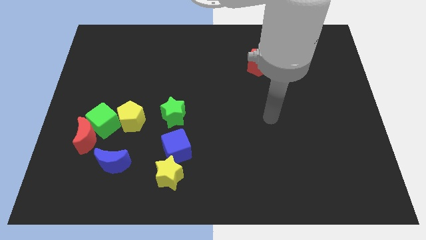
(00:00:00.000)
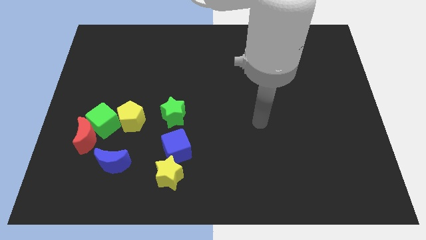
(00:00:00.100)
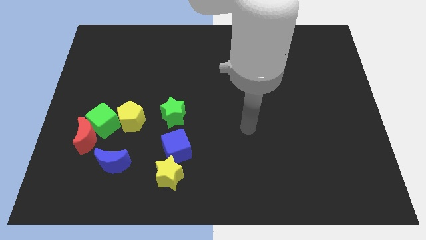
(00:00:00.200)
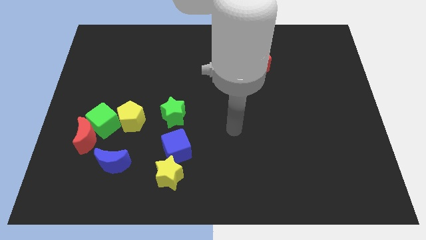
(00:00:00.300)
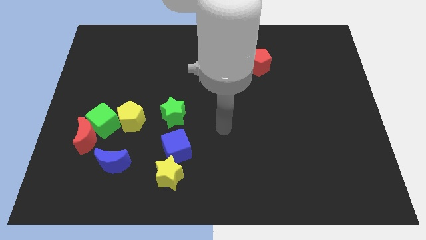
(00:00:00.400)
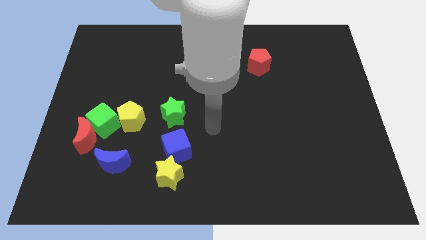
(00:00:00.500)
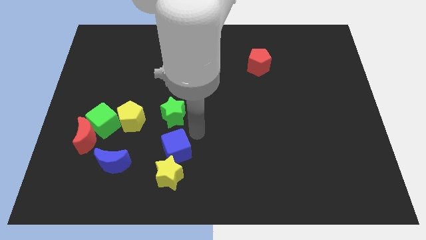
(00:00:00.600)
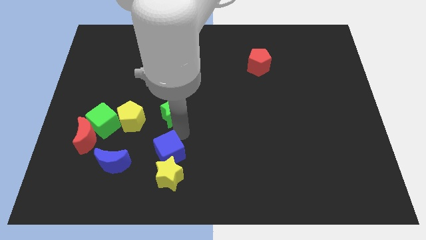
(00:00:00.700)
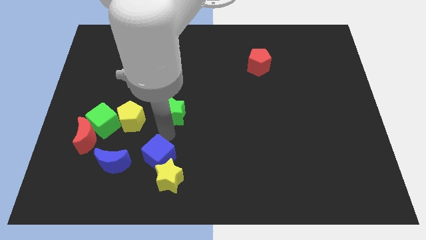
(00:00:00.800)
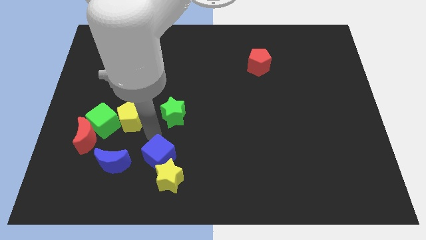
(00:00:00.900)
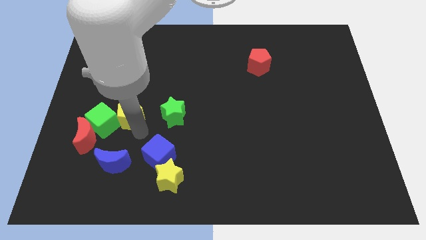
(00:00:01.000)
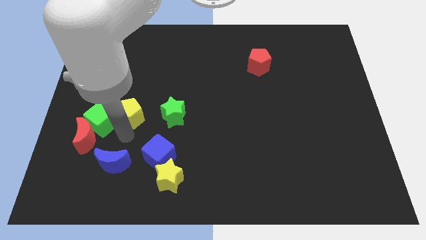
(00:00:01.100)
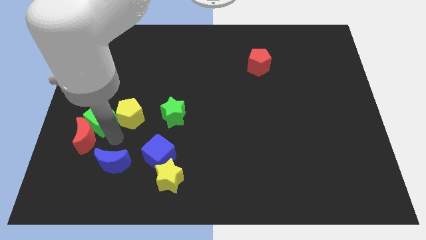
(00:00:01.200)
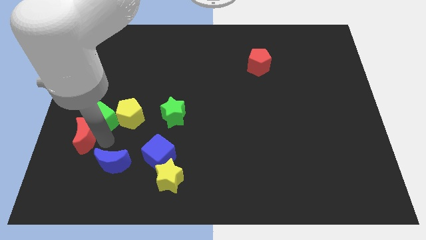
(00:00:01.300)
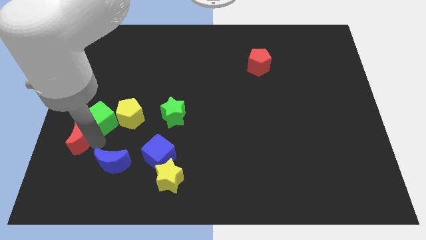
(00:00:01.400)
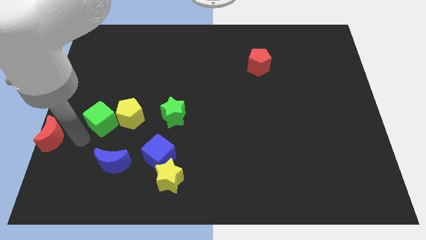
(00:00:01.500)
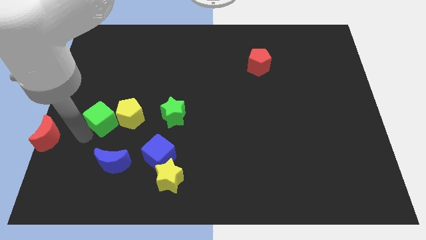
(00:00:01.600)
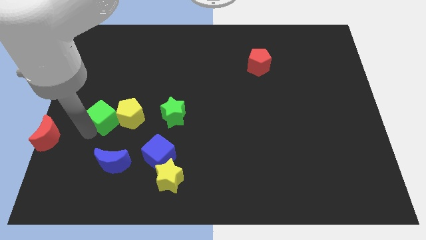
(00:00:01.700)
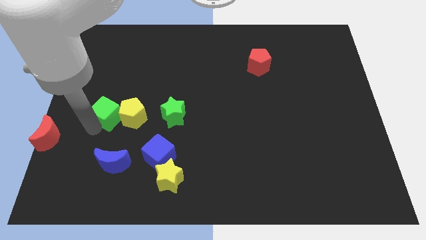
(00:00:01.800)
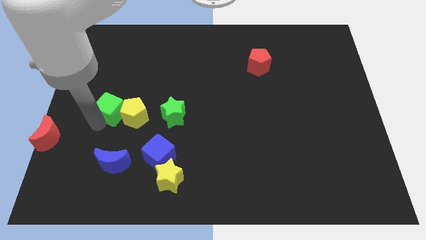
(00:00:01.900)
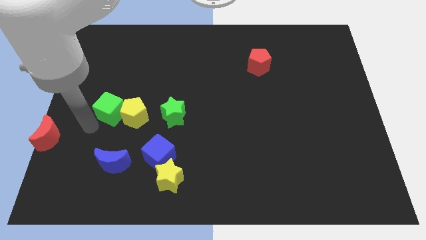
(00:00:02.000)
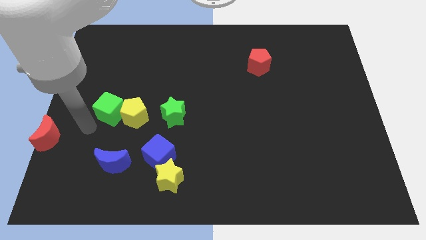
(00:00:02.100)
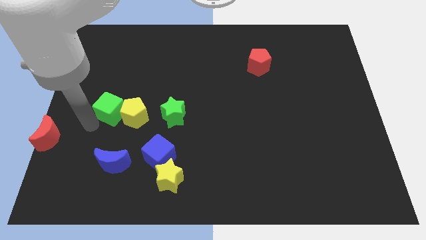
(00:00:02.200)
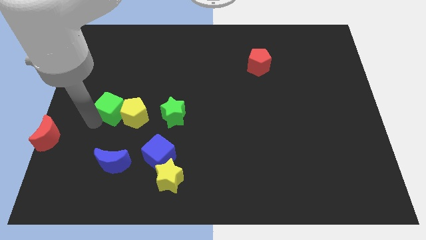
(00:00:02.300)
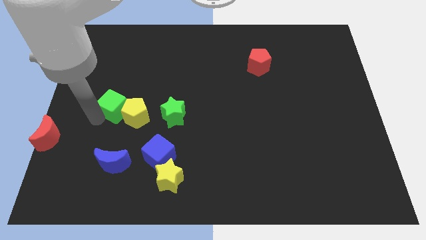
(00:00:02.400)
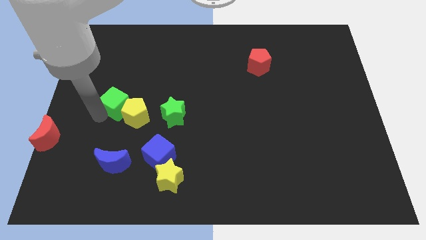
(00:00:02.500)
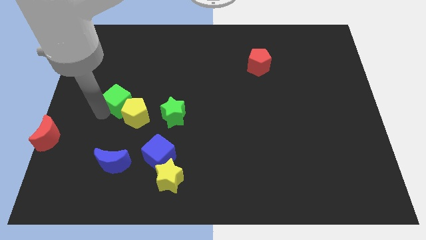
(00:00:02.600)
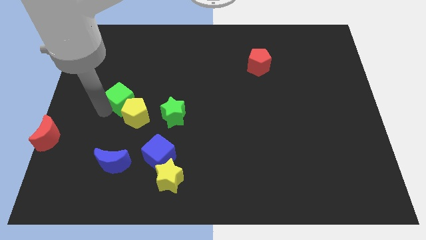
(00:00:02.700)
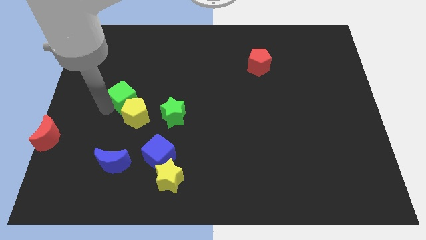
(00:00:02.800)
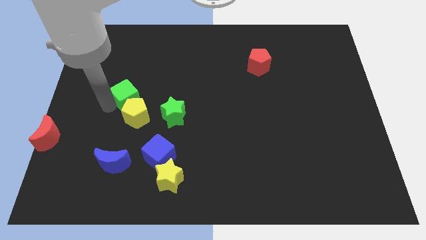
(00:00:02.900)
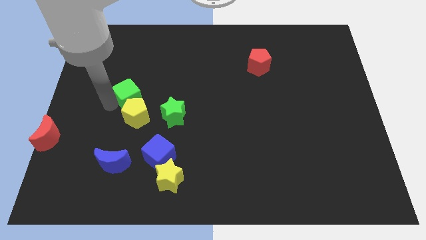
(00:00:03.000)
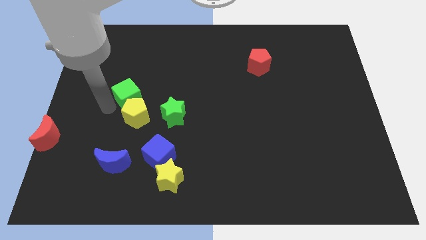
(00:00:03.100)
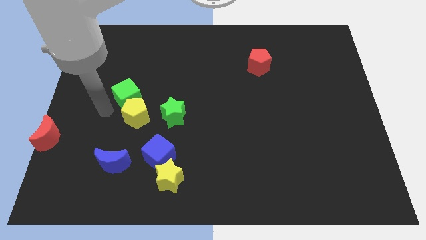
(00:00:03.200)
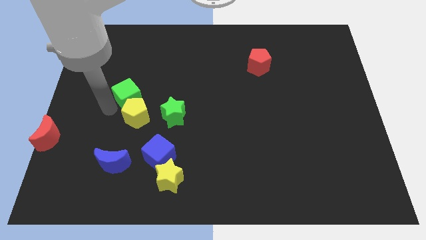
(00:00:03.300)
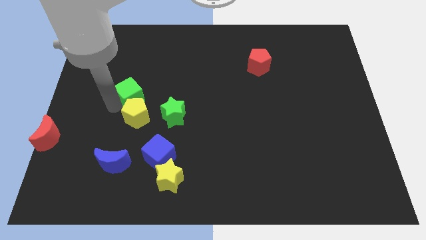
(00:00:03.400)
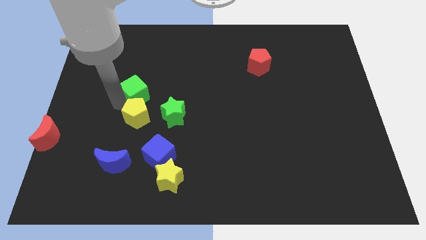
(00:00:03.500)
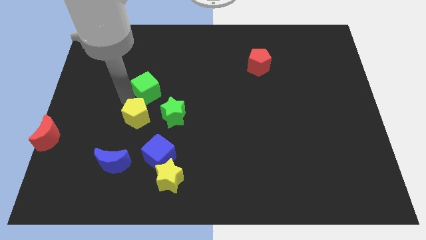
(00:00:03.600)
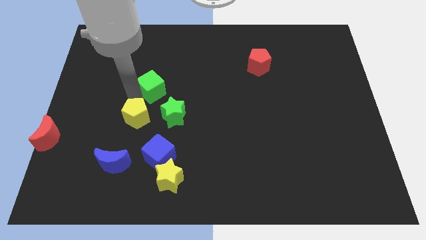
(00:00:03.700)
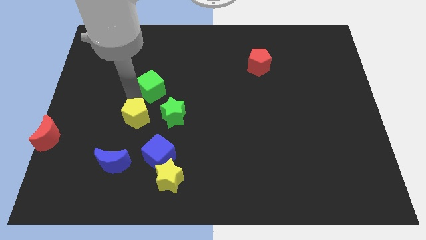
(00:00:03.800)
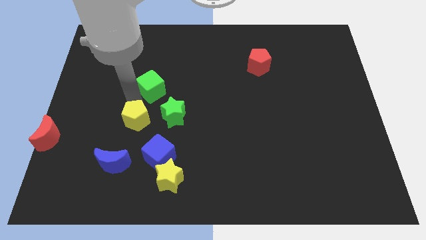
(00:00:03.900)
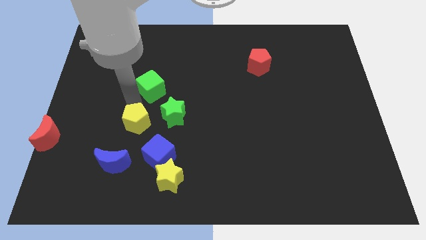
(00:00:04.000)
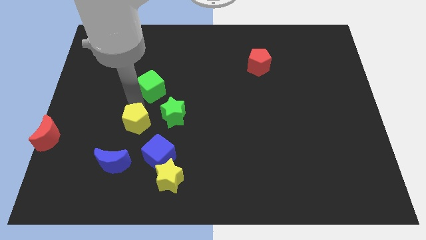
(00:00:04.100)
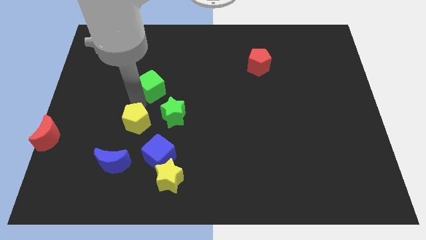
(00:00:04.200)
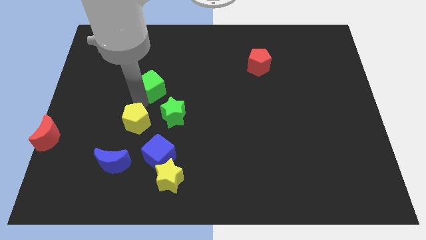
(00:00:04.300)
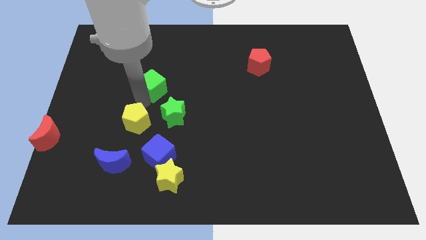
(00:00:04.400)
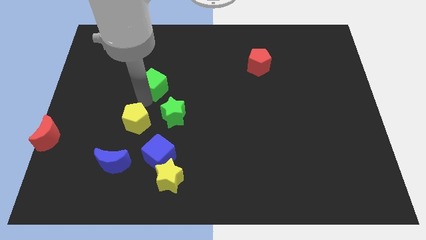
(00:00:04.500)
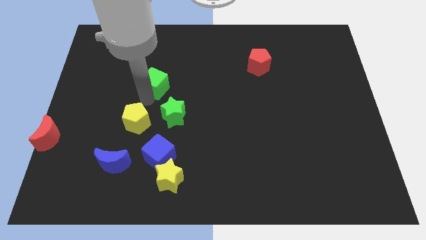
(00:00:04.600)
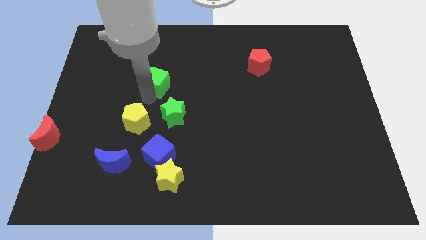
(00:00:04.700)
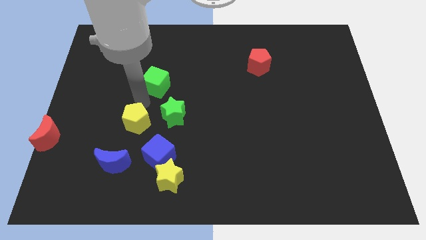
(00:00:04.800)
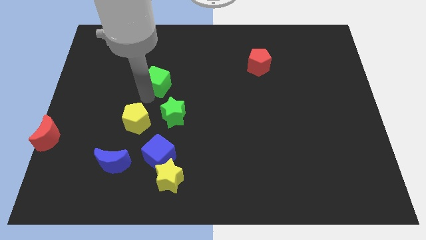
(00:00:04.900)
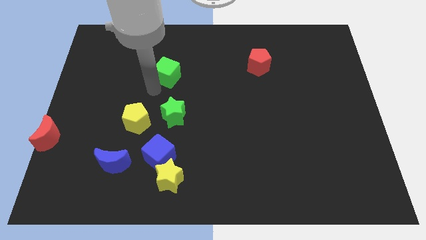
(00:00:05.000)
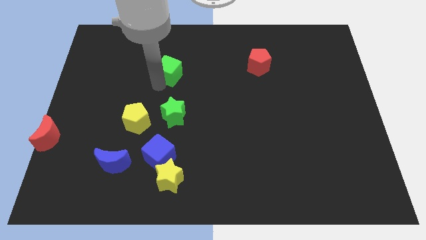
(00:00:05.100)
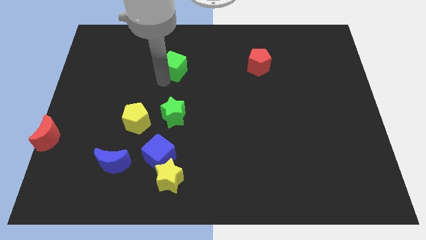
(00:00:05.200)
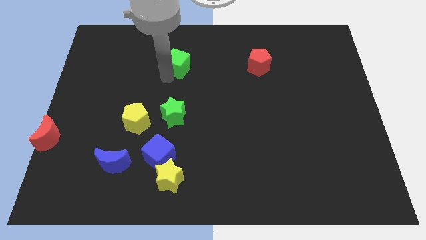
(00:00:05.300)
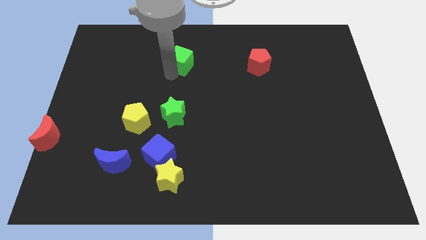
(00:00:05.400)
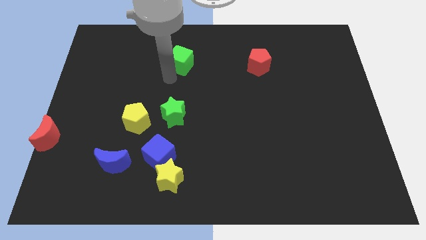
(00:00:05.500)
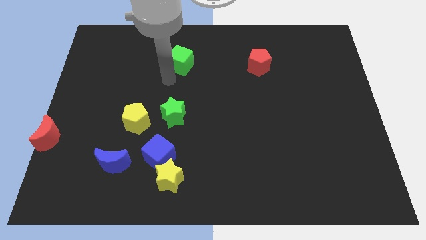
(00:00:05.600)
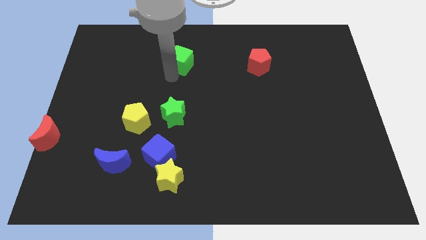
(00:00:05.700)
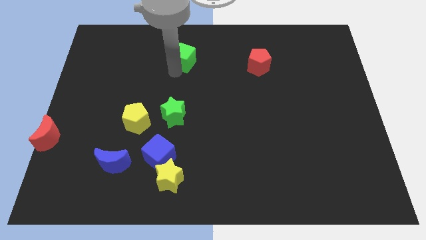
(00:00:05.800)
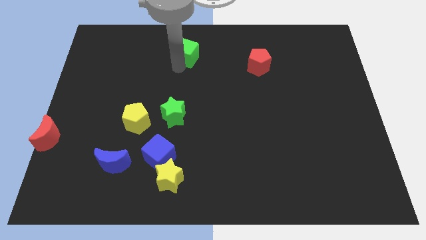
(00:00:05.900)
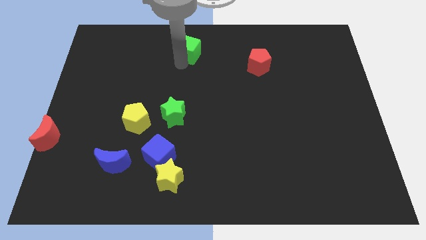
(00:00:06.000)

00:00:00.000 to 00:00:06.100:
push the green cube to the top side
